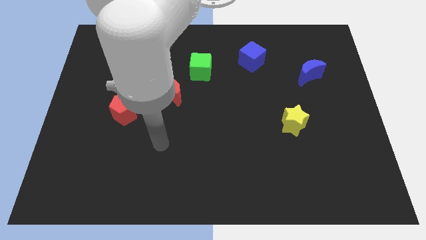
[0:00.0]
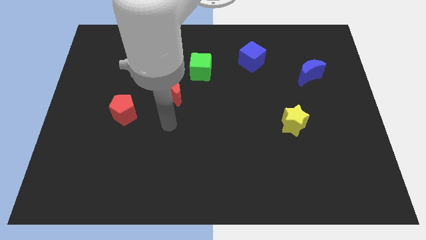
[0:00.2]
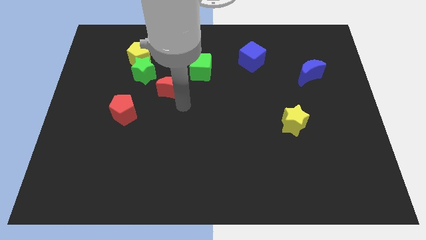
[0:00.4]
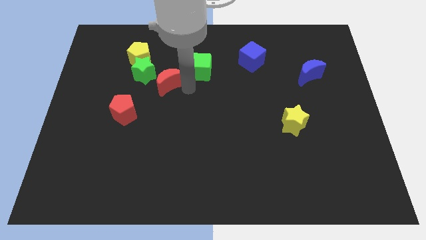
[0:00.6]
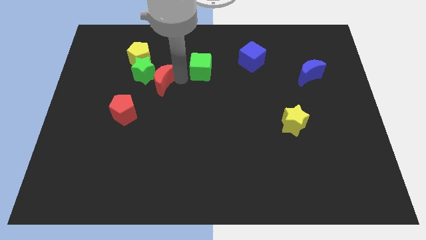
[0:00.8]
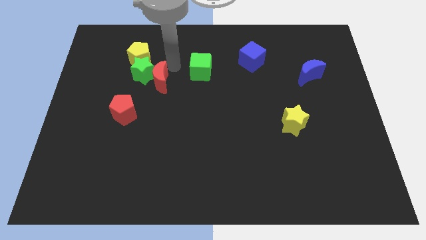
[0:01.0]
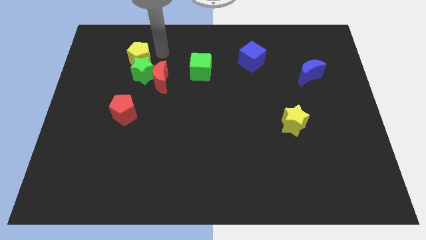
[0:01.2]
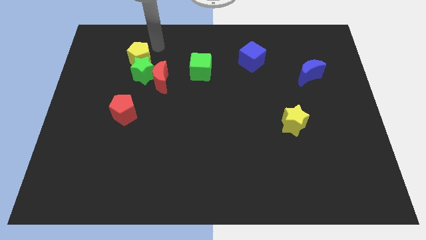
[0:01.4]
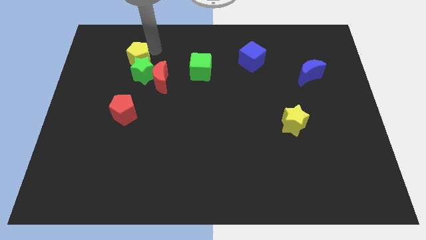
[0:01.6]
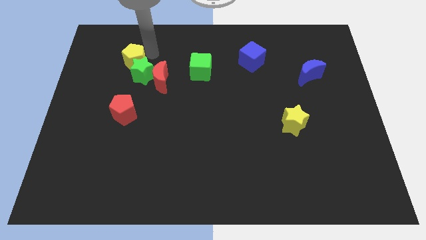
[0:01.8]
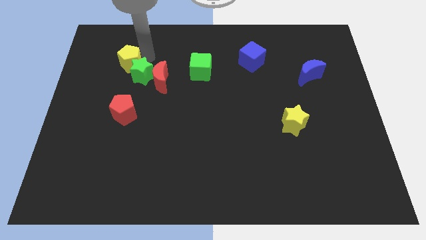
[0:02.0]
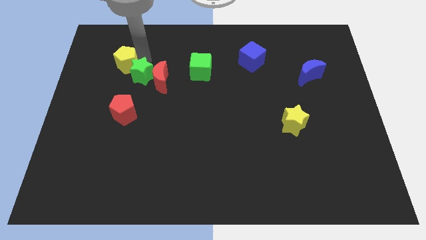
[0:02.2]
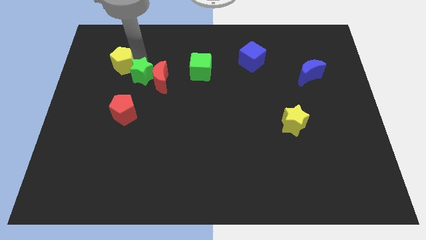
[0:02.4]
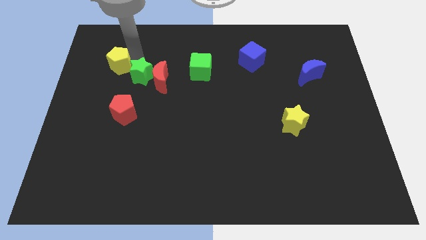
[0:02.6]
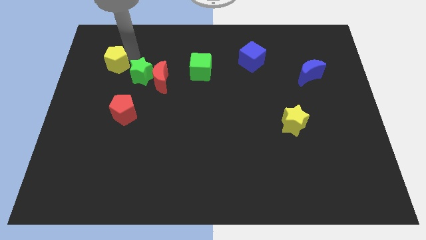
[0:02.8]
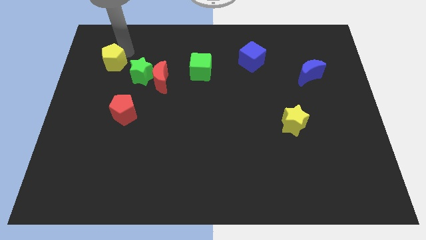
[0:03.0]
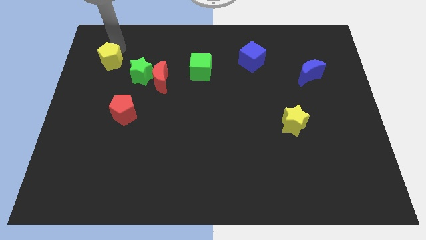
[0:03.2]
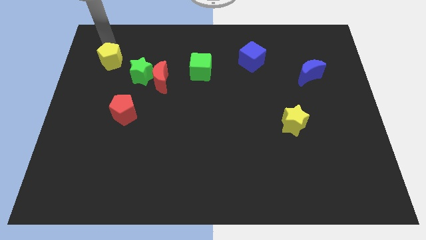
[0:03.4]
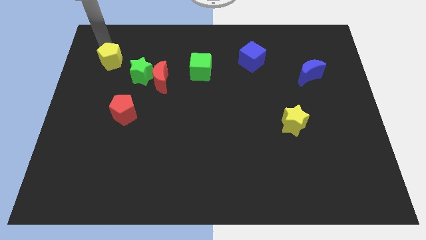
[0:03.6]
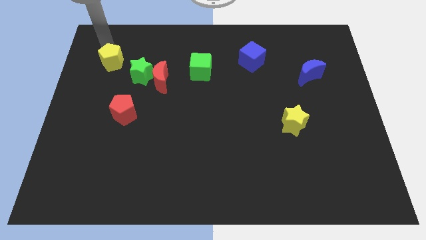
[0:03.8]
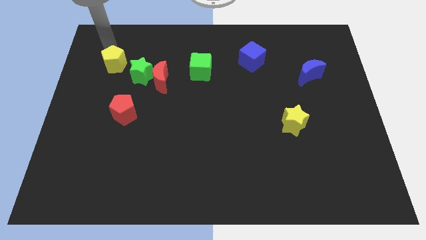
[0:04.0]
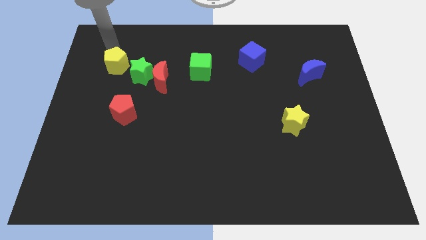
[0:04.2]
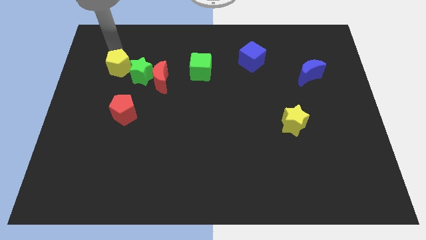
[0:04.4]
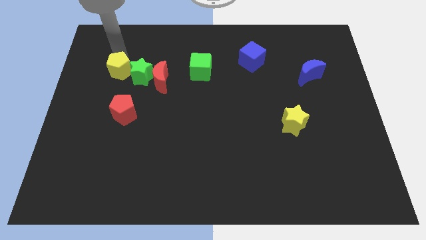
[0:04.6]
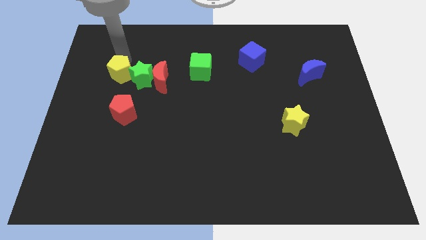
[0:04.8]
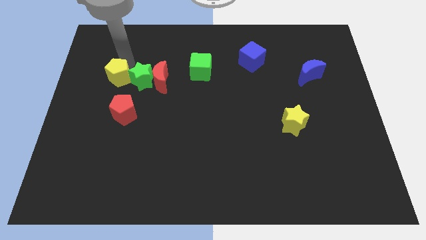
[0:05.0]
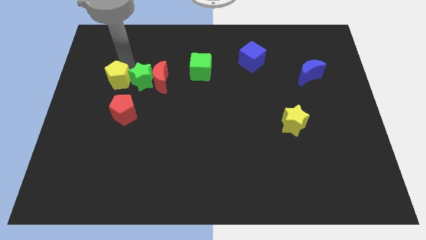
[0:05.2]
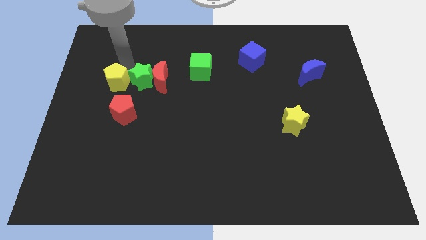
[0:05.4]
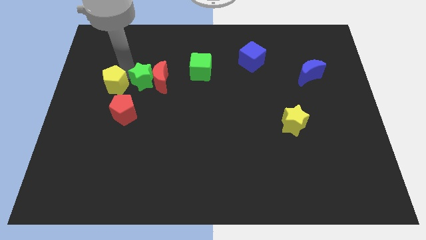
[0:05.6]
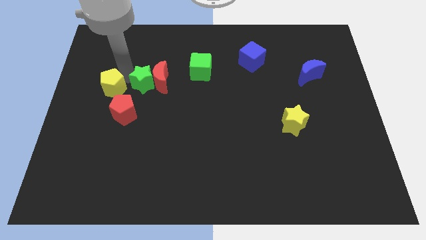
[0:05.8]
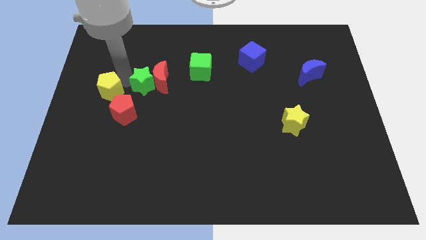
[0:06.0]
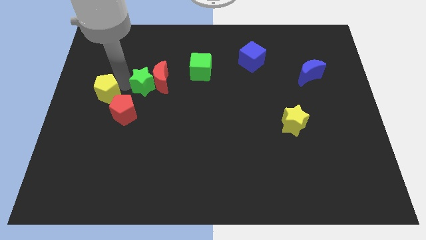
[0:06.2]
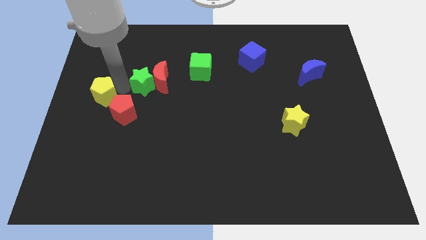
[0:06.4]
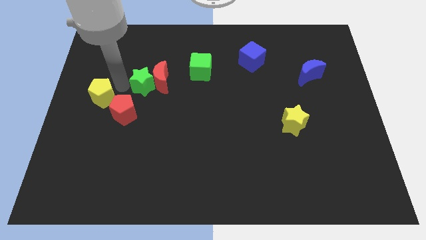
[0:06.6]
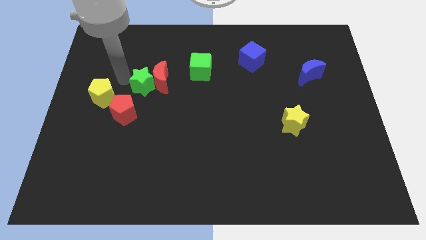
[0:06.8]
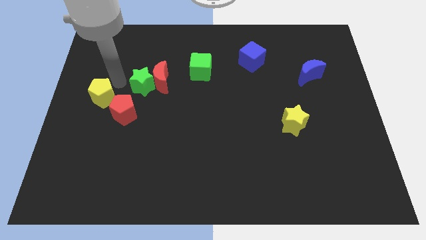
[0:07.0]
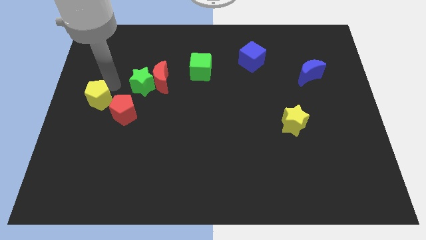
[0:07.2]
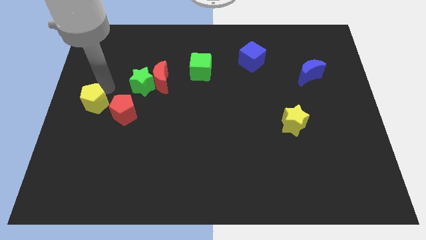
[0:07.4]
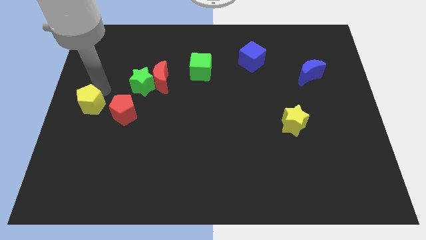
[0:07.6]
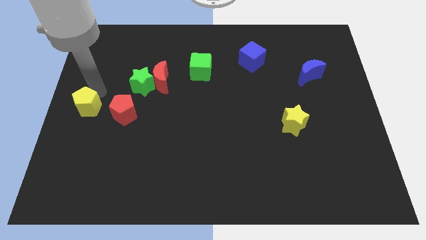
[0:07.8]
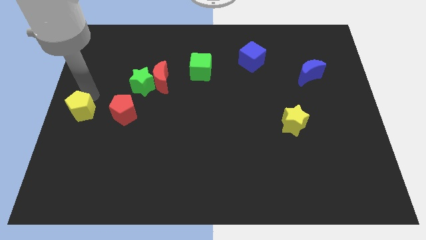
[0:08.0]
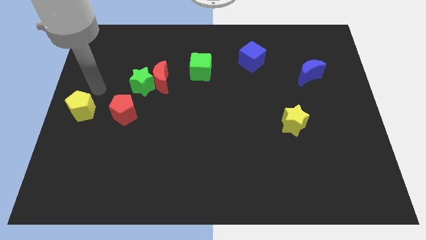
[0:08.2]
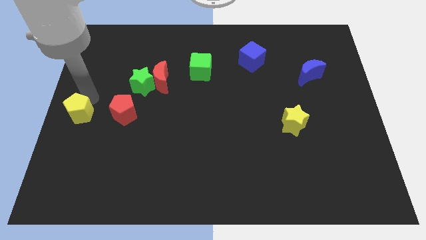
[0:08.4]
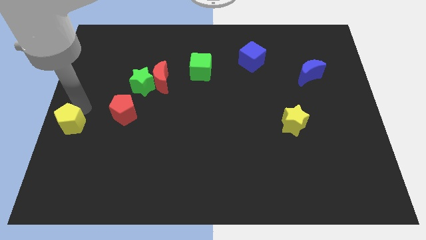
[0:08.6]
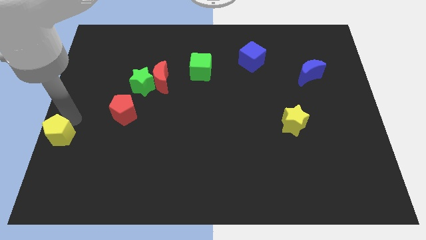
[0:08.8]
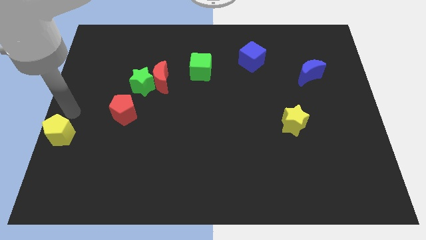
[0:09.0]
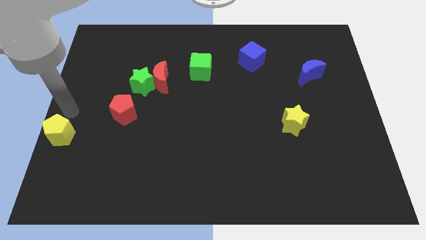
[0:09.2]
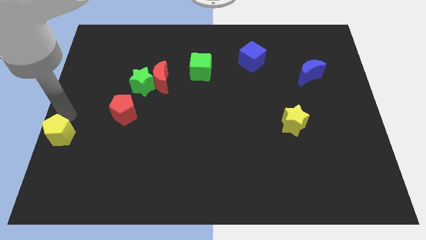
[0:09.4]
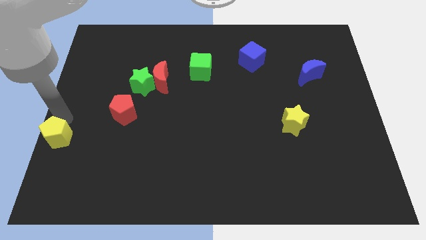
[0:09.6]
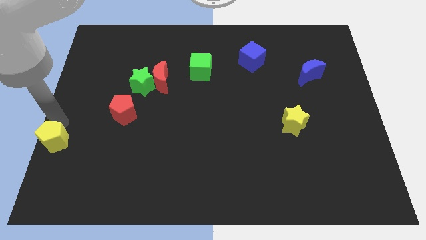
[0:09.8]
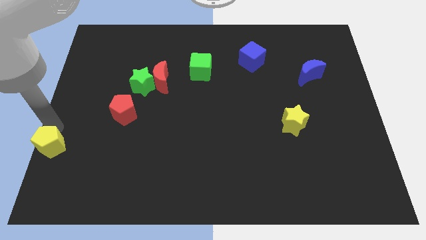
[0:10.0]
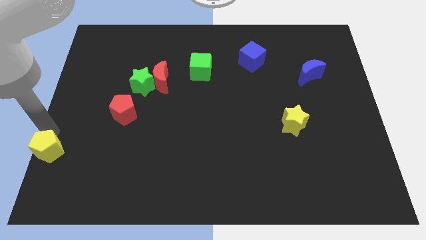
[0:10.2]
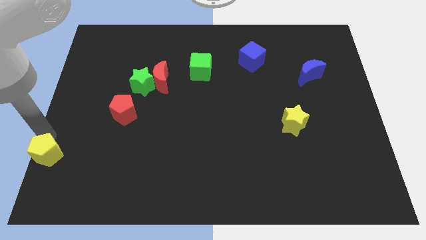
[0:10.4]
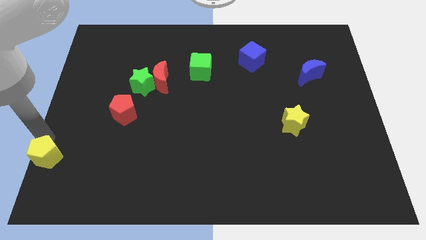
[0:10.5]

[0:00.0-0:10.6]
move the yellow pentagon to the bottom left corner

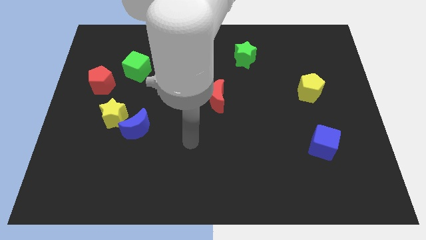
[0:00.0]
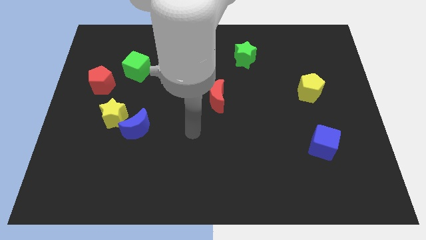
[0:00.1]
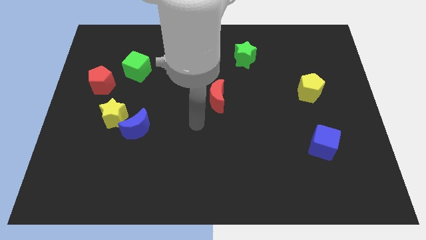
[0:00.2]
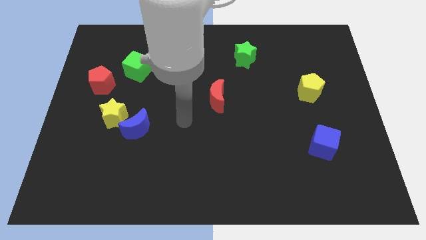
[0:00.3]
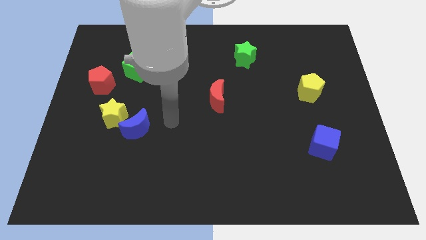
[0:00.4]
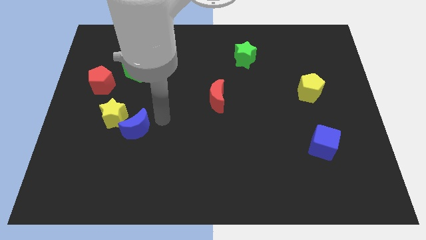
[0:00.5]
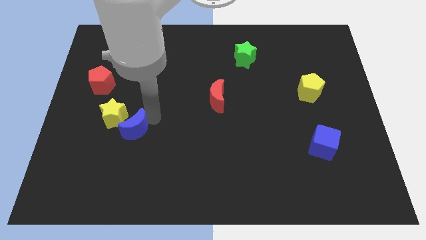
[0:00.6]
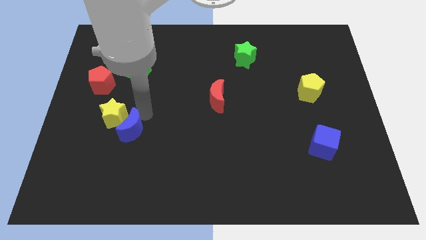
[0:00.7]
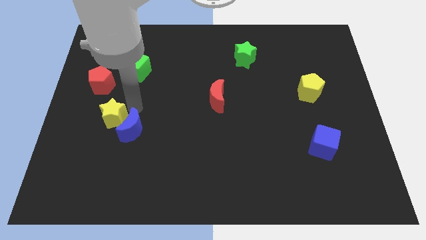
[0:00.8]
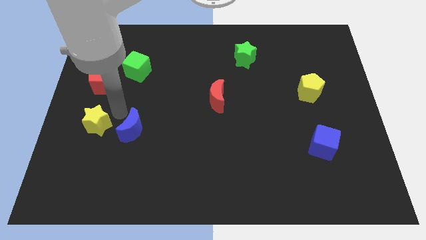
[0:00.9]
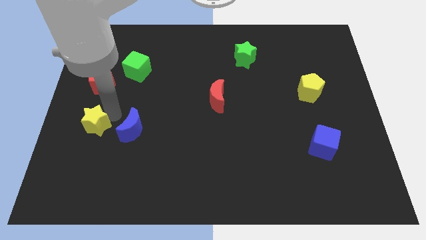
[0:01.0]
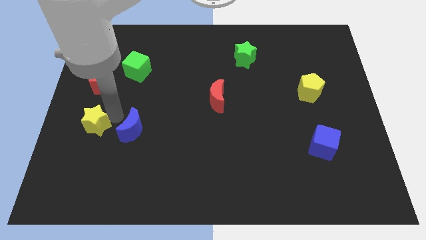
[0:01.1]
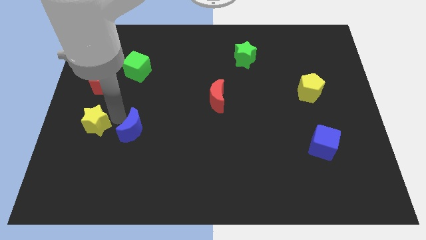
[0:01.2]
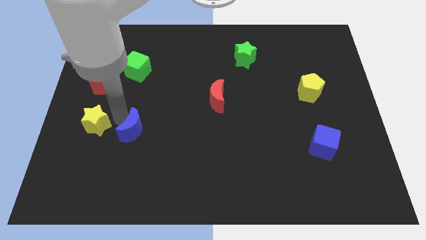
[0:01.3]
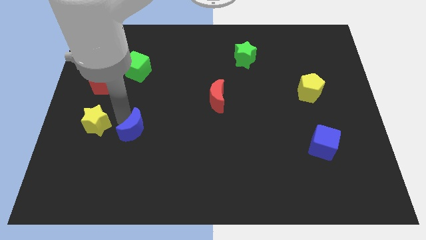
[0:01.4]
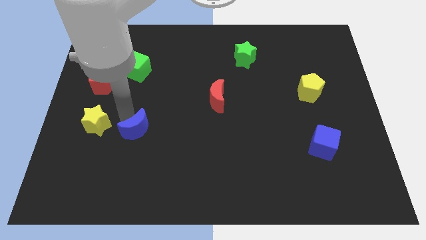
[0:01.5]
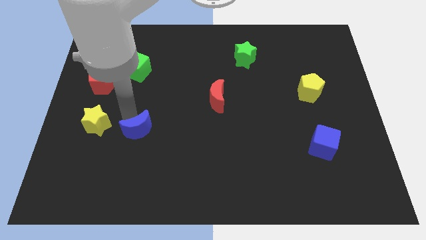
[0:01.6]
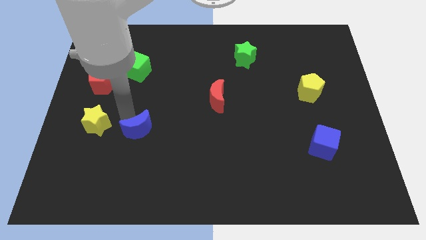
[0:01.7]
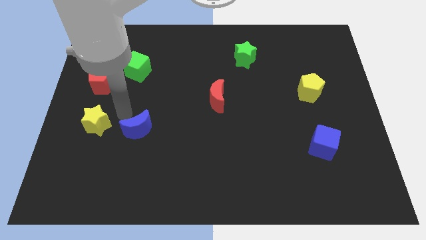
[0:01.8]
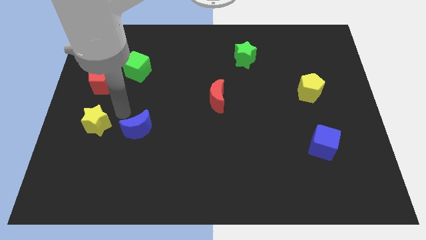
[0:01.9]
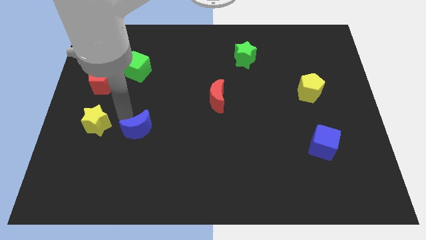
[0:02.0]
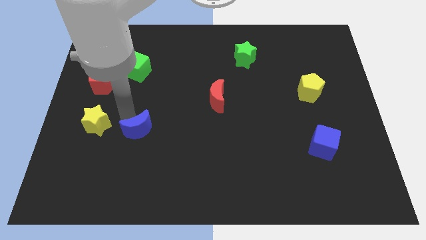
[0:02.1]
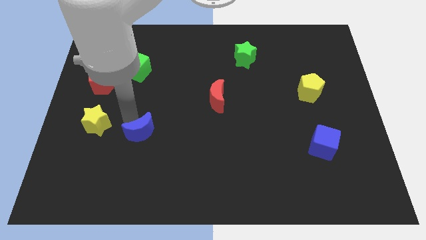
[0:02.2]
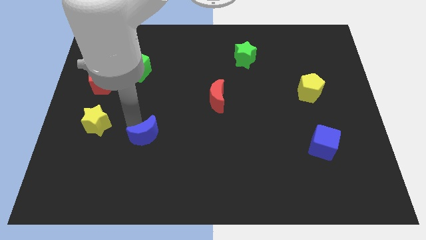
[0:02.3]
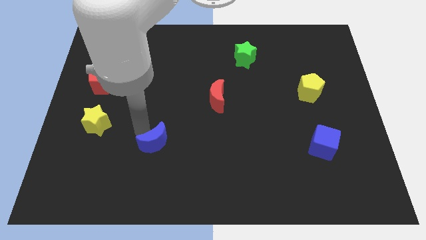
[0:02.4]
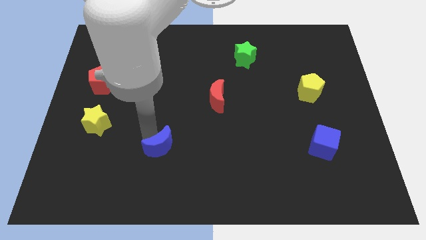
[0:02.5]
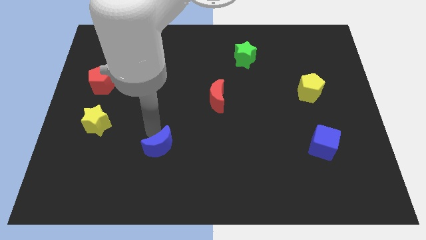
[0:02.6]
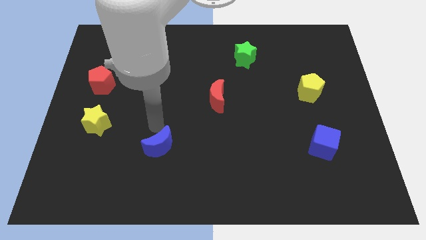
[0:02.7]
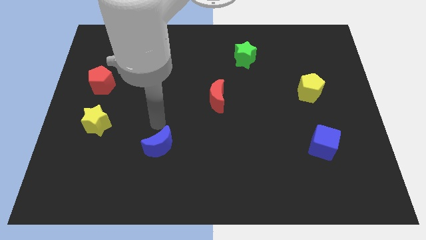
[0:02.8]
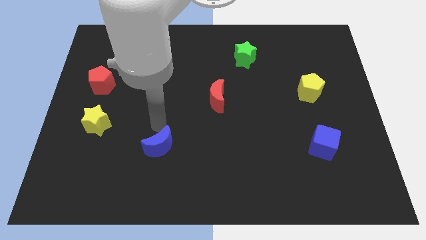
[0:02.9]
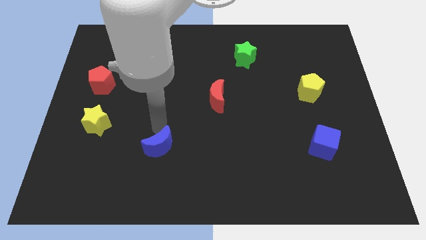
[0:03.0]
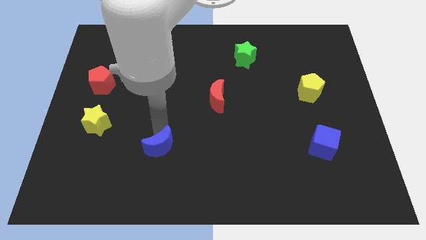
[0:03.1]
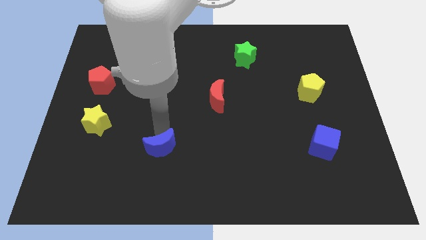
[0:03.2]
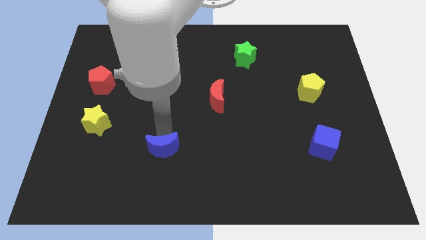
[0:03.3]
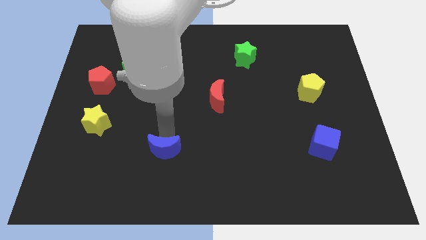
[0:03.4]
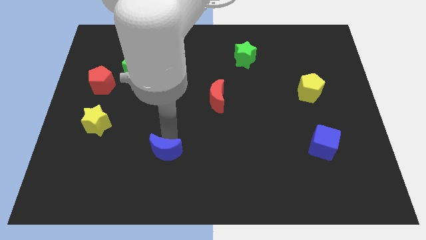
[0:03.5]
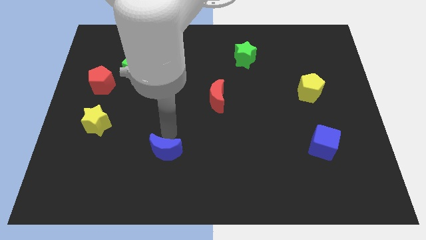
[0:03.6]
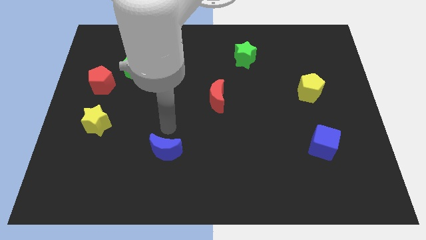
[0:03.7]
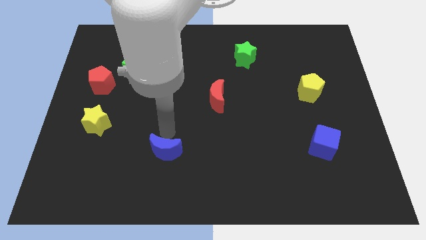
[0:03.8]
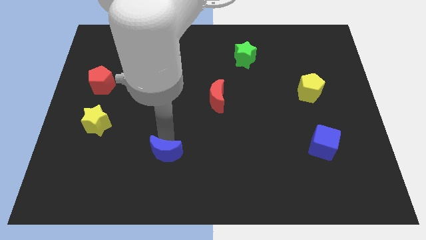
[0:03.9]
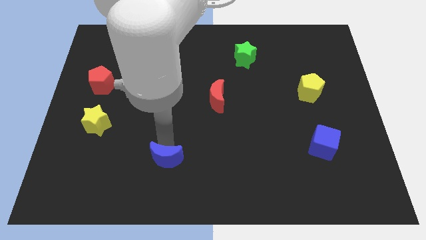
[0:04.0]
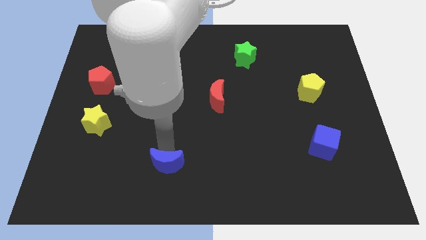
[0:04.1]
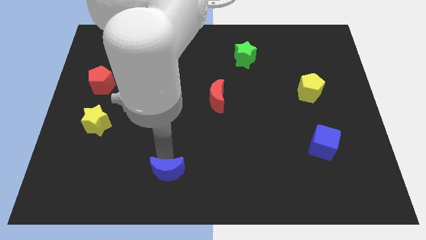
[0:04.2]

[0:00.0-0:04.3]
slide the blue moon to the bottom
